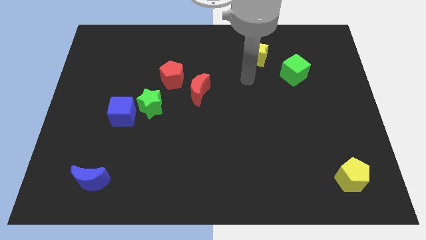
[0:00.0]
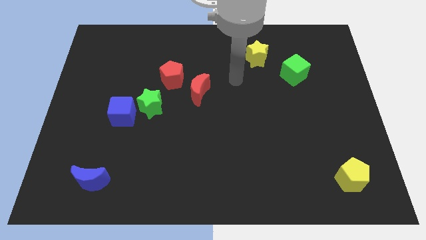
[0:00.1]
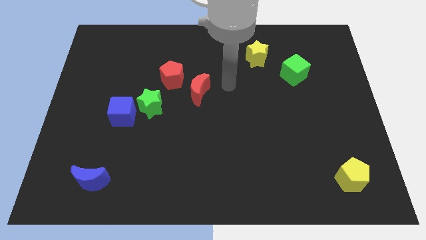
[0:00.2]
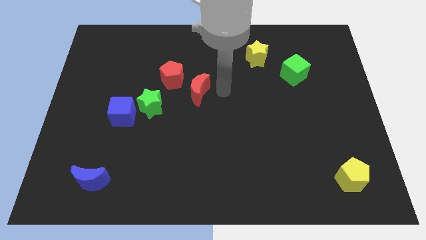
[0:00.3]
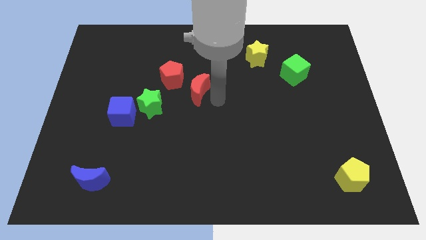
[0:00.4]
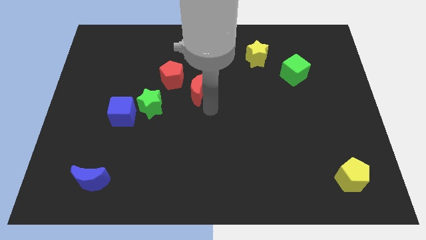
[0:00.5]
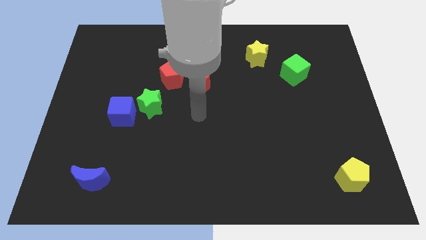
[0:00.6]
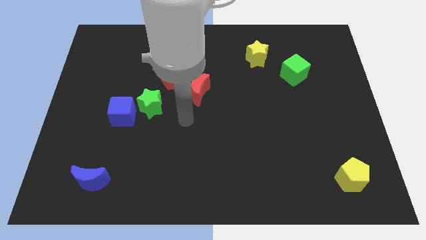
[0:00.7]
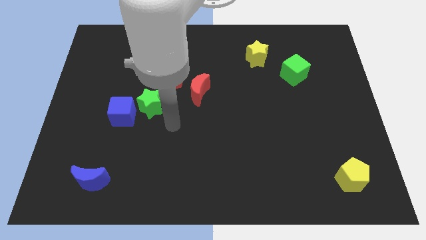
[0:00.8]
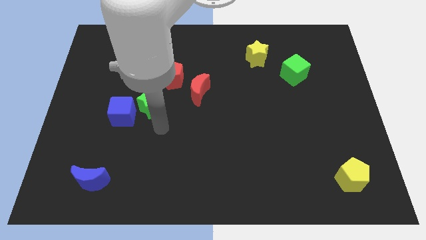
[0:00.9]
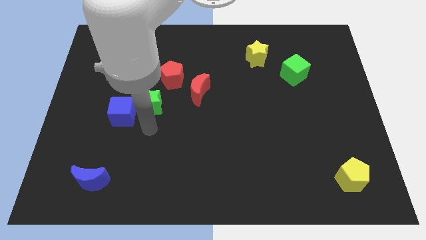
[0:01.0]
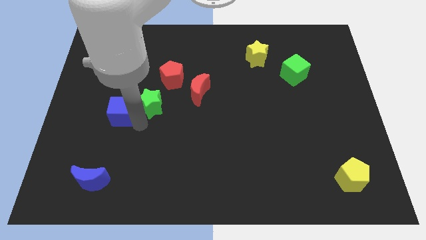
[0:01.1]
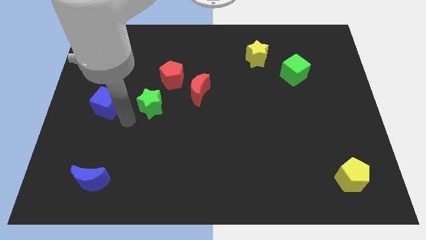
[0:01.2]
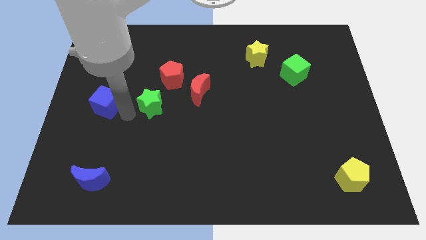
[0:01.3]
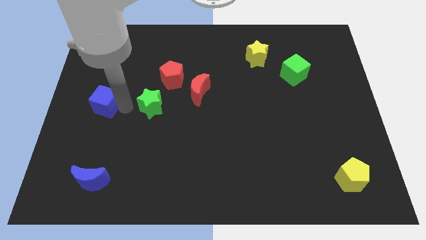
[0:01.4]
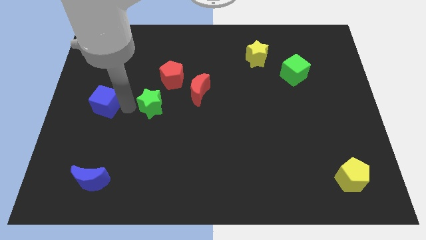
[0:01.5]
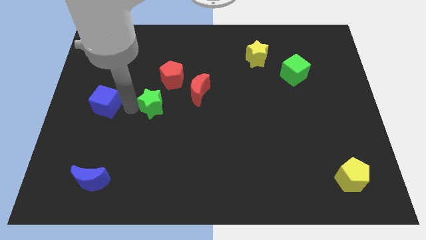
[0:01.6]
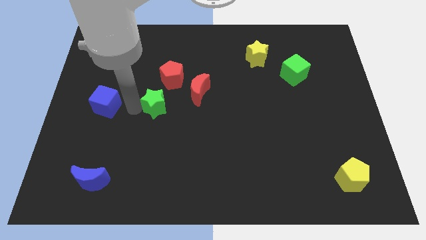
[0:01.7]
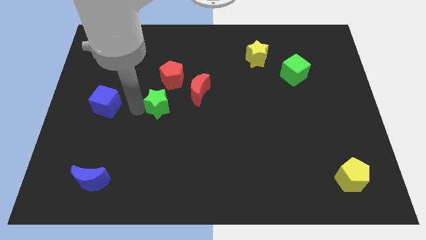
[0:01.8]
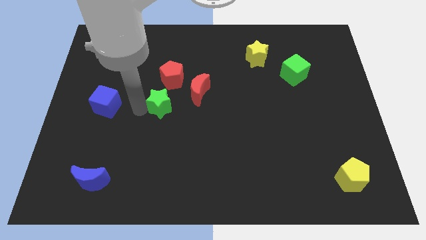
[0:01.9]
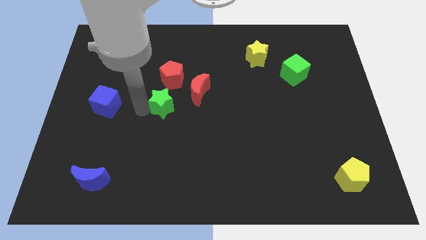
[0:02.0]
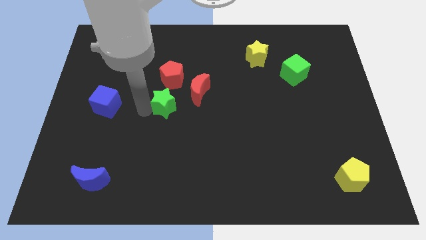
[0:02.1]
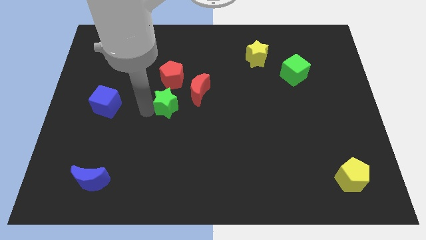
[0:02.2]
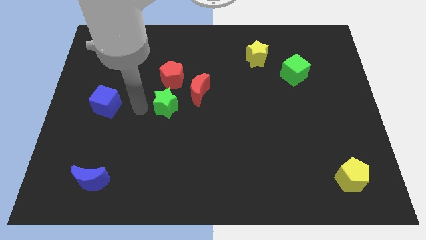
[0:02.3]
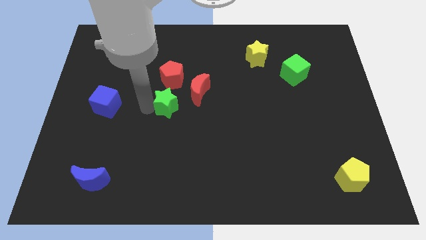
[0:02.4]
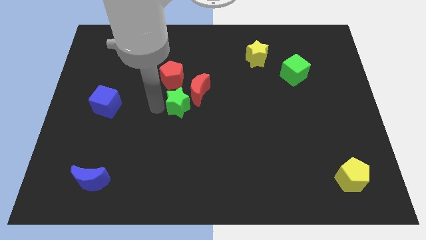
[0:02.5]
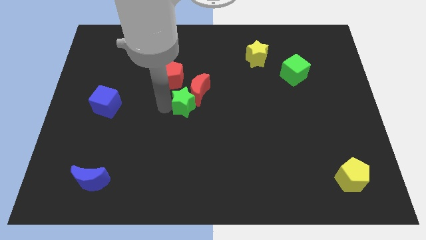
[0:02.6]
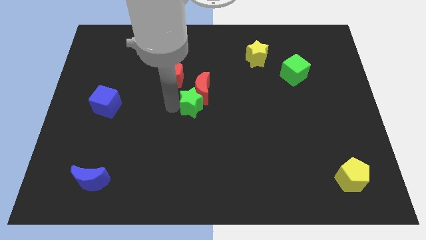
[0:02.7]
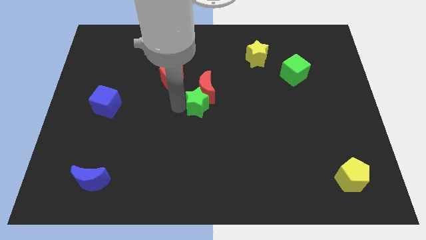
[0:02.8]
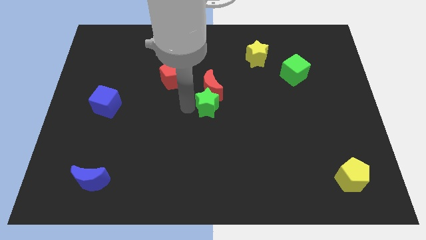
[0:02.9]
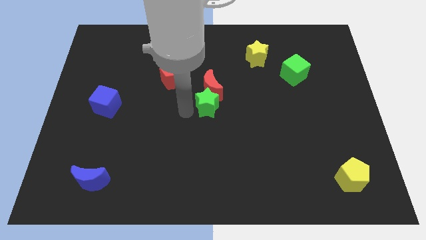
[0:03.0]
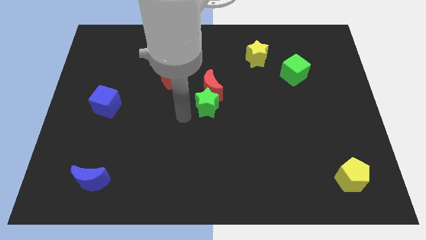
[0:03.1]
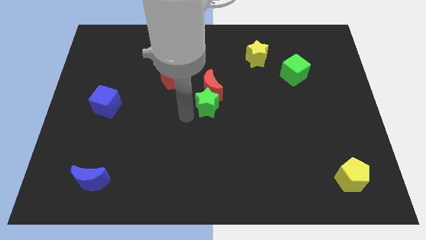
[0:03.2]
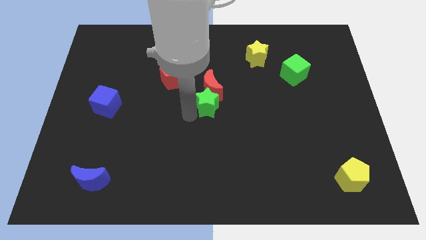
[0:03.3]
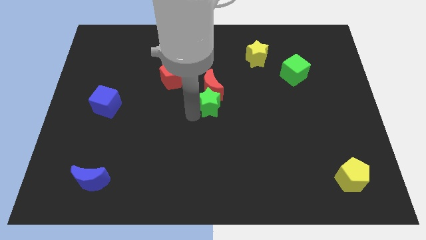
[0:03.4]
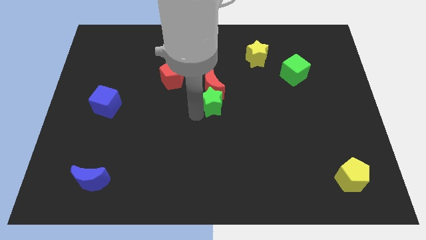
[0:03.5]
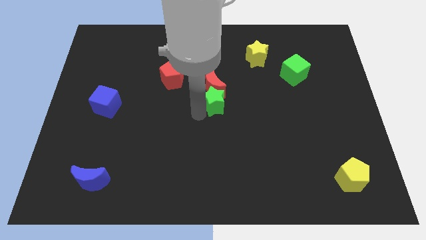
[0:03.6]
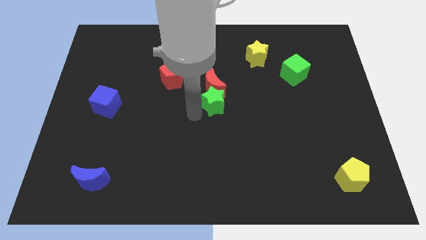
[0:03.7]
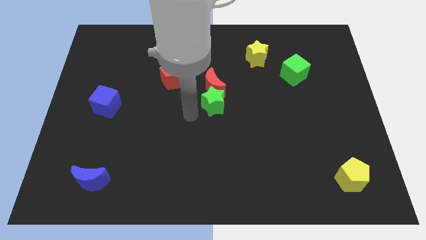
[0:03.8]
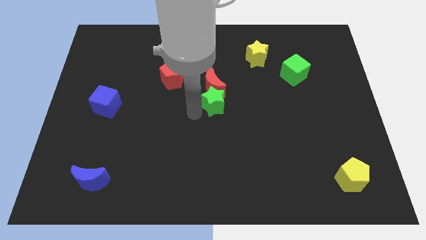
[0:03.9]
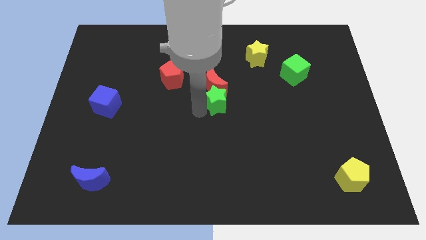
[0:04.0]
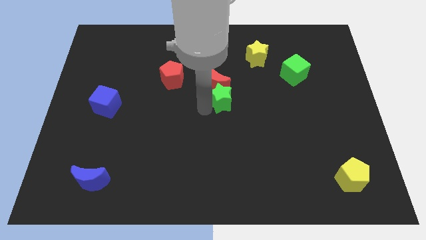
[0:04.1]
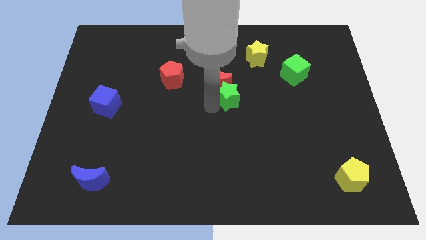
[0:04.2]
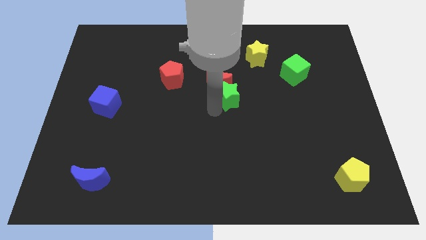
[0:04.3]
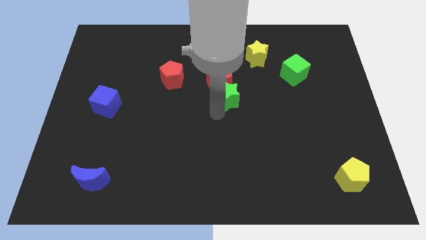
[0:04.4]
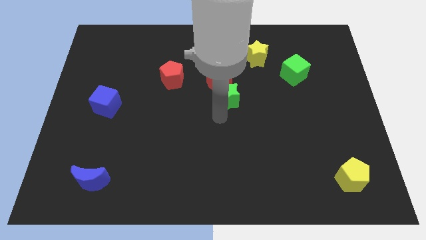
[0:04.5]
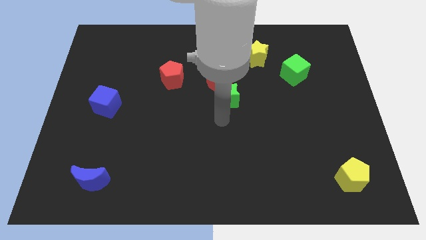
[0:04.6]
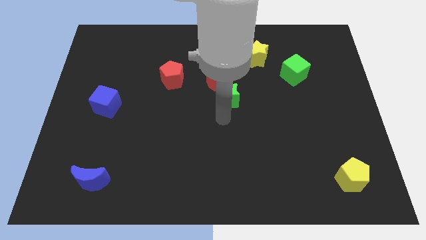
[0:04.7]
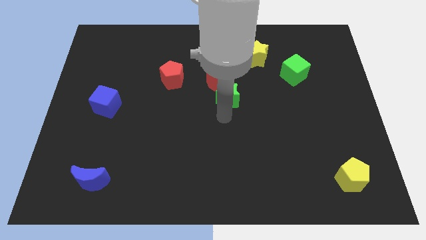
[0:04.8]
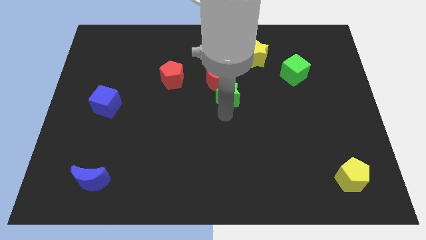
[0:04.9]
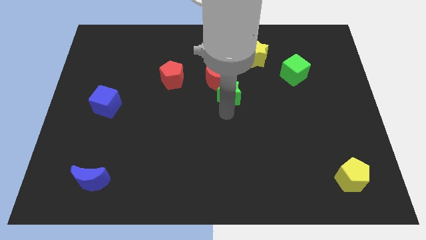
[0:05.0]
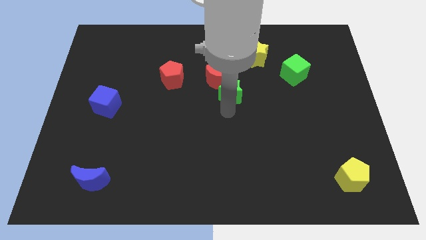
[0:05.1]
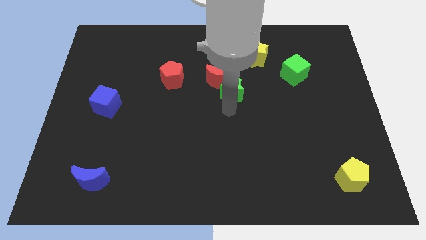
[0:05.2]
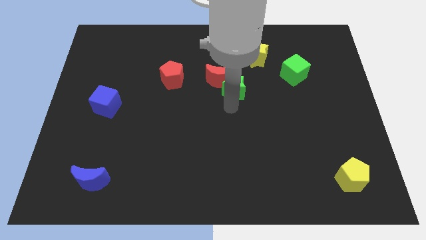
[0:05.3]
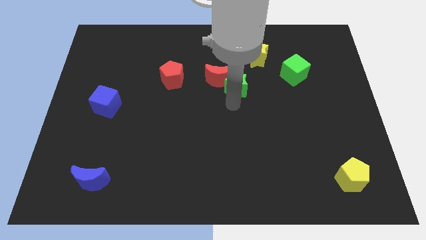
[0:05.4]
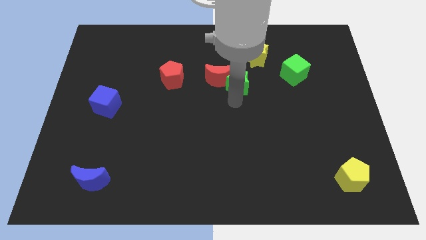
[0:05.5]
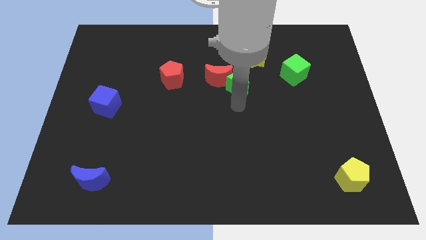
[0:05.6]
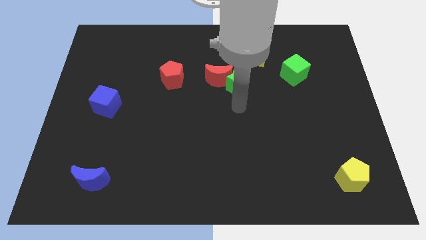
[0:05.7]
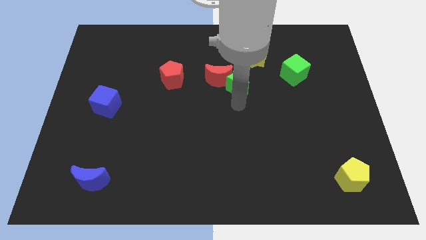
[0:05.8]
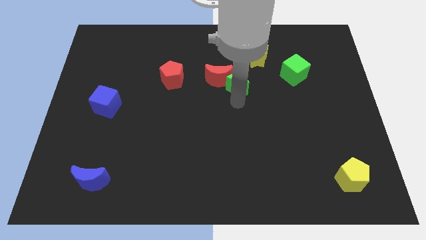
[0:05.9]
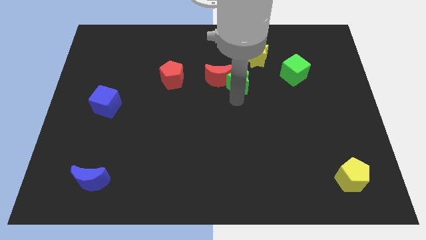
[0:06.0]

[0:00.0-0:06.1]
put the green star diagonally up and to the right of the red moon

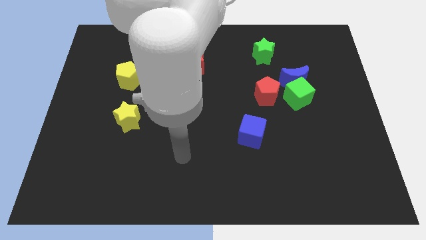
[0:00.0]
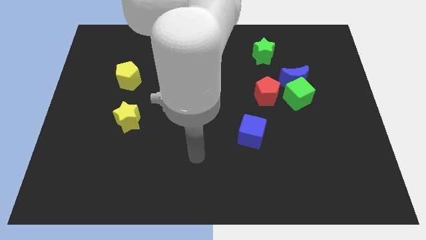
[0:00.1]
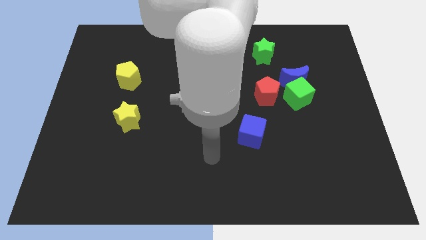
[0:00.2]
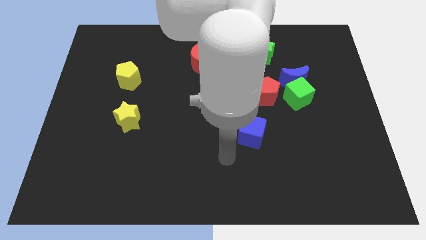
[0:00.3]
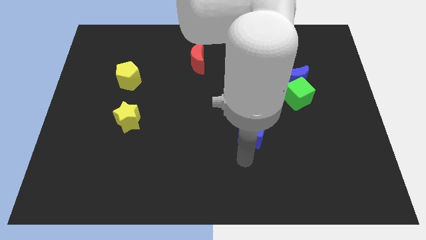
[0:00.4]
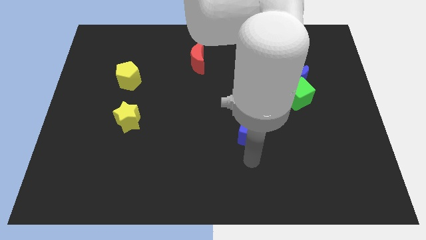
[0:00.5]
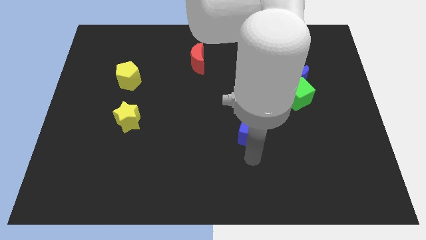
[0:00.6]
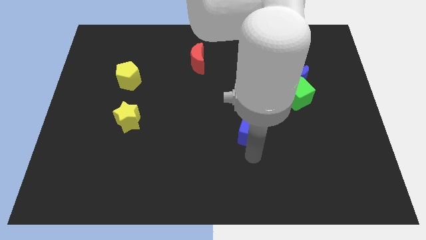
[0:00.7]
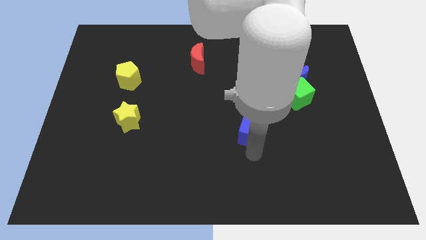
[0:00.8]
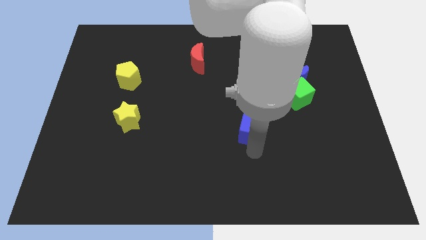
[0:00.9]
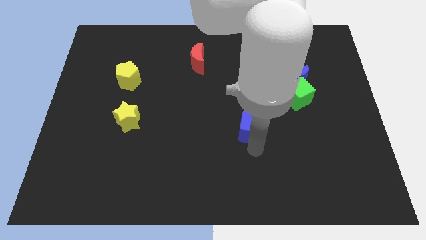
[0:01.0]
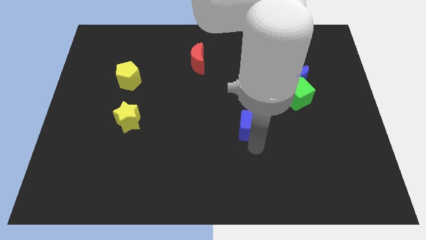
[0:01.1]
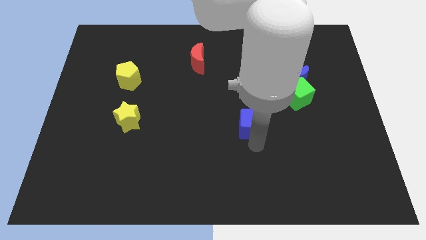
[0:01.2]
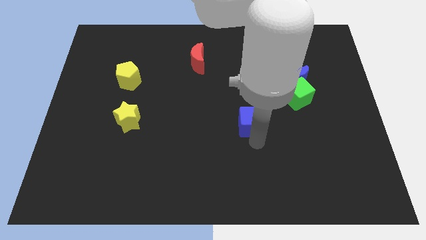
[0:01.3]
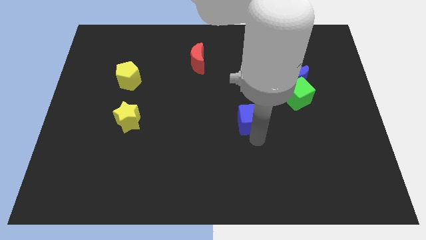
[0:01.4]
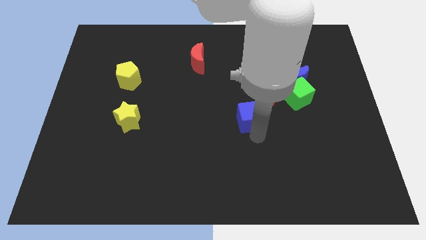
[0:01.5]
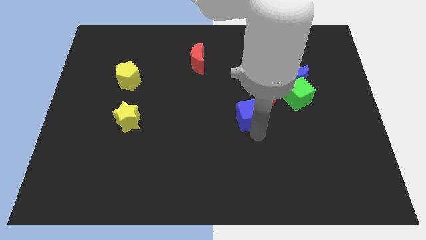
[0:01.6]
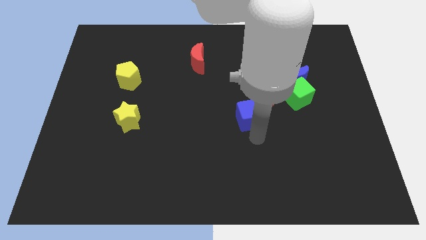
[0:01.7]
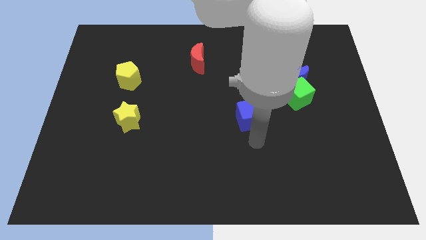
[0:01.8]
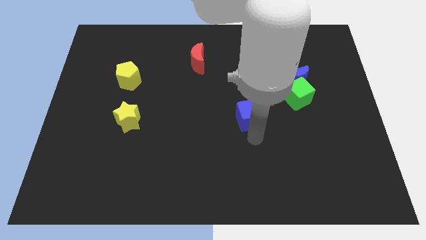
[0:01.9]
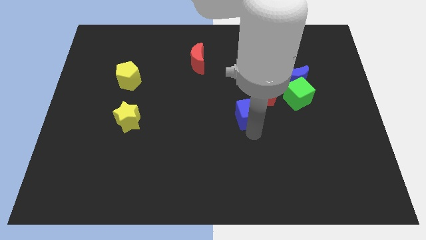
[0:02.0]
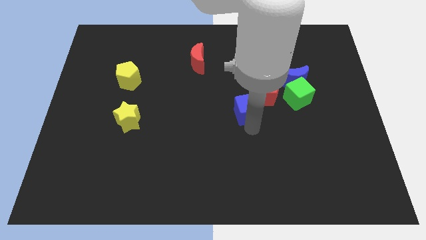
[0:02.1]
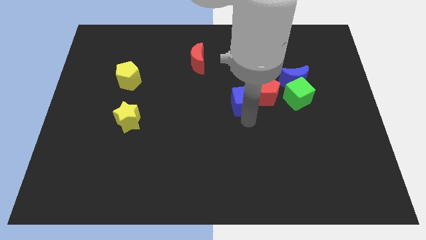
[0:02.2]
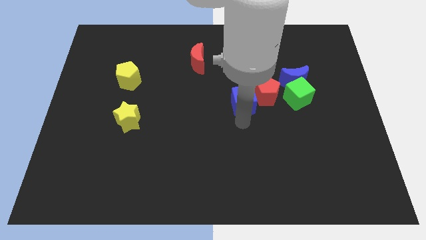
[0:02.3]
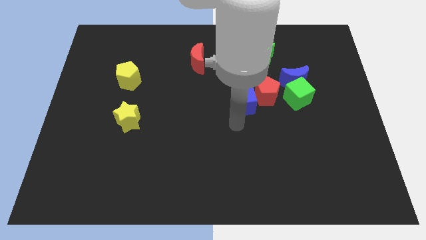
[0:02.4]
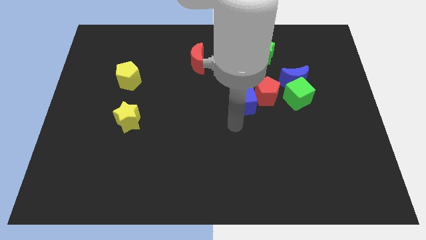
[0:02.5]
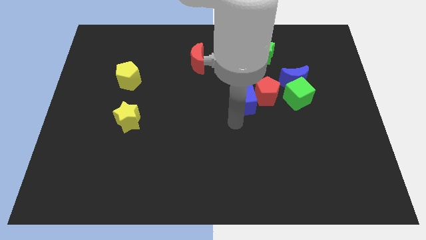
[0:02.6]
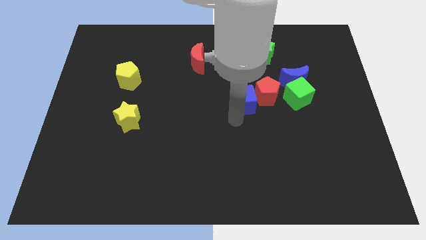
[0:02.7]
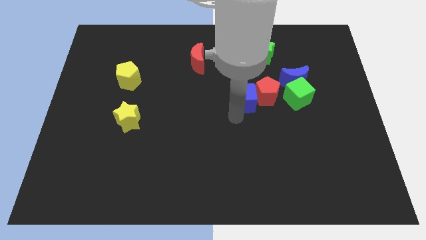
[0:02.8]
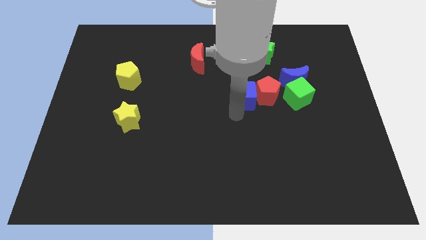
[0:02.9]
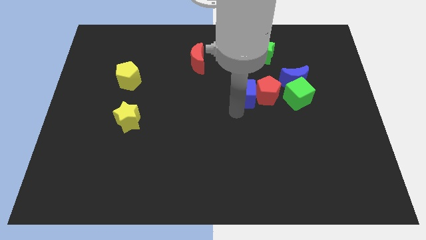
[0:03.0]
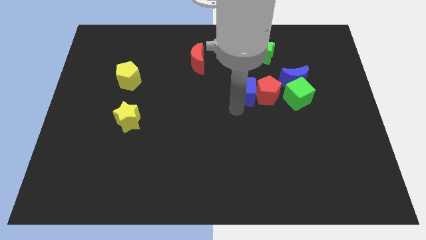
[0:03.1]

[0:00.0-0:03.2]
move the blue cube to the left of the blue moon
